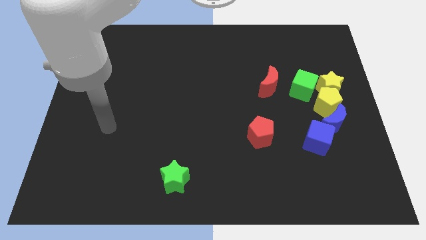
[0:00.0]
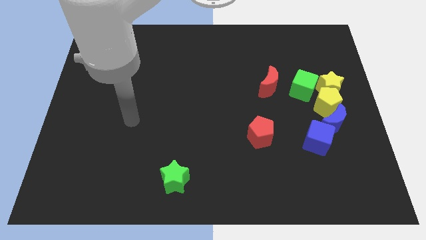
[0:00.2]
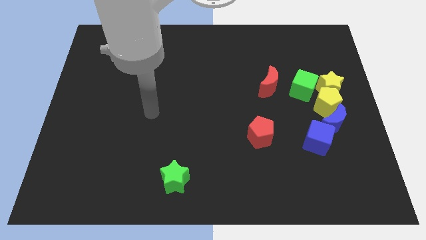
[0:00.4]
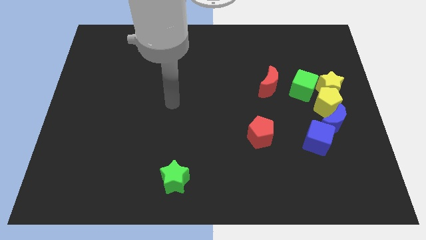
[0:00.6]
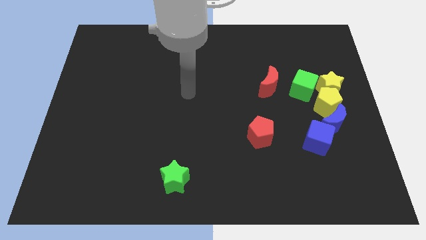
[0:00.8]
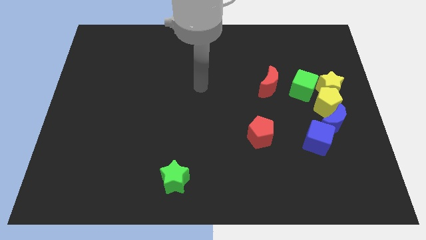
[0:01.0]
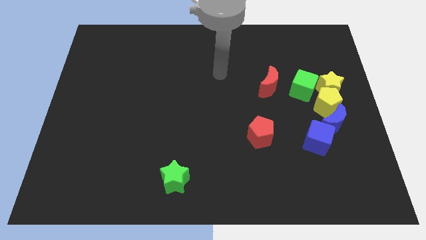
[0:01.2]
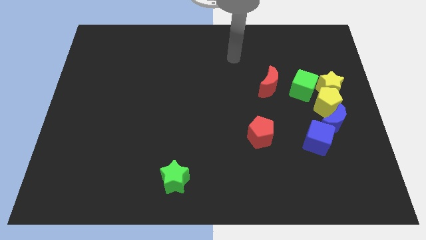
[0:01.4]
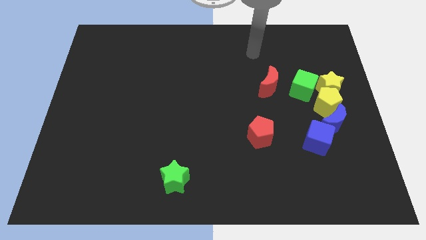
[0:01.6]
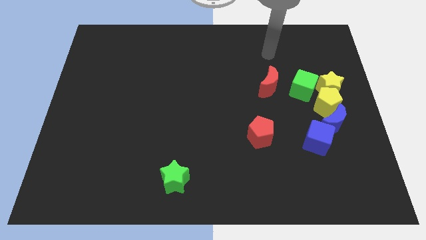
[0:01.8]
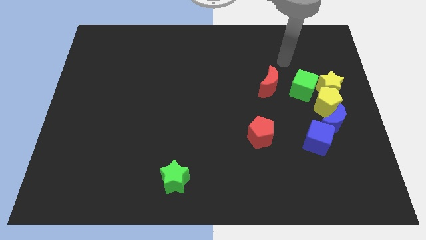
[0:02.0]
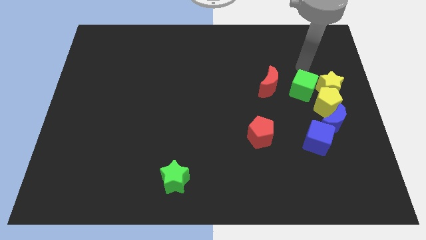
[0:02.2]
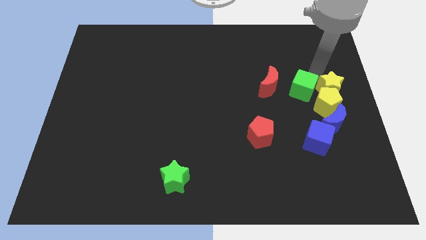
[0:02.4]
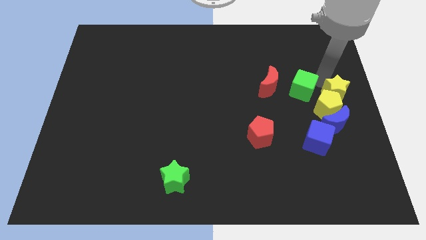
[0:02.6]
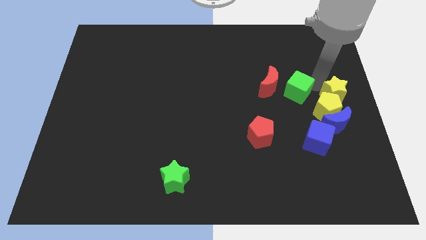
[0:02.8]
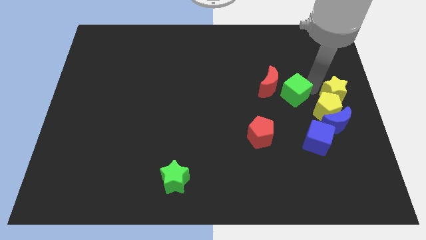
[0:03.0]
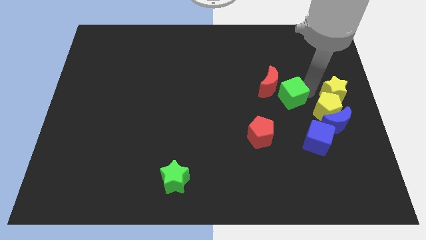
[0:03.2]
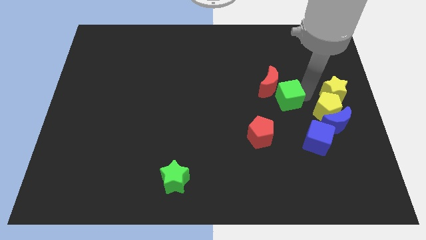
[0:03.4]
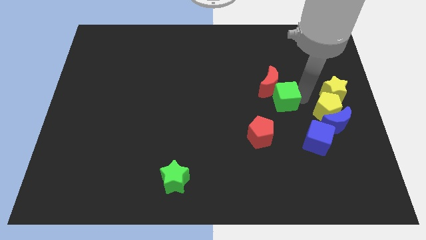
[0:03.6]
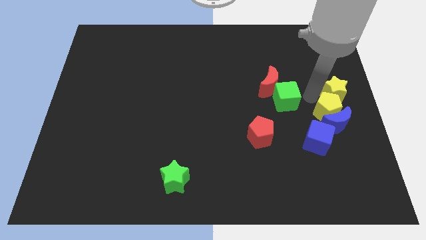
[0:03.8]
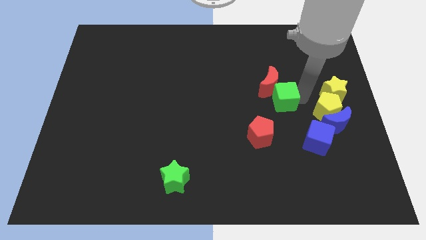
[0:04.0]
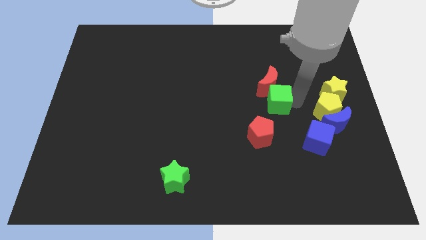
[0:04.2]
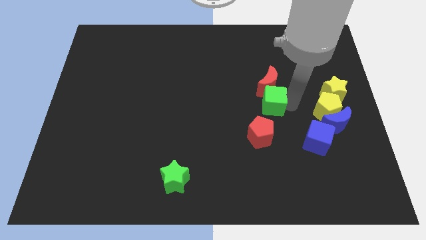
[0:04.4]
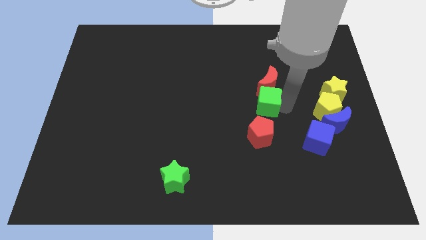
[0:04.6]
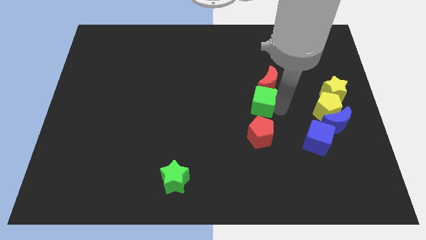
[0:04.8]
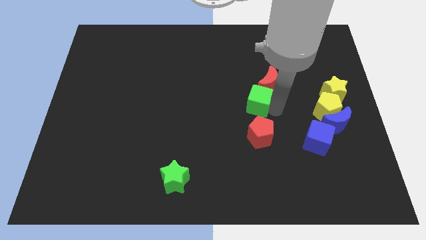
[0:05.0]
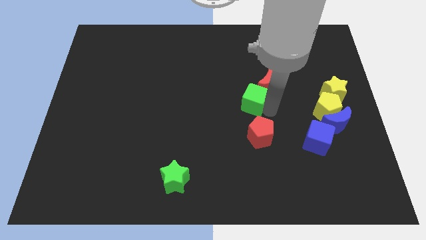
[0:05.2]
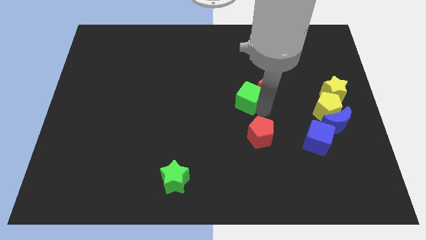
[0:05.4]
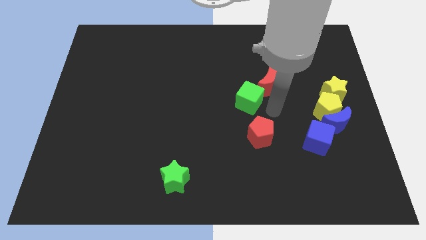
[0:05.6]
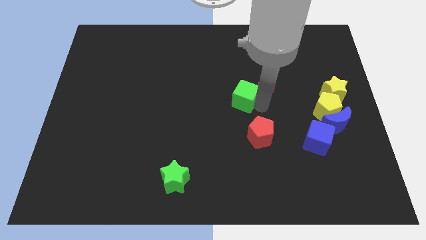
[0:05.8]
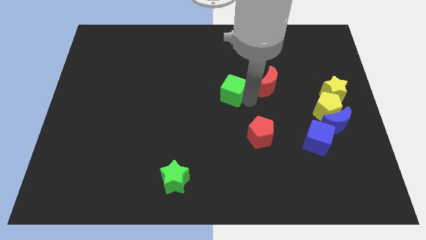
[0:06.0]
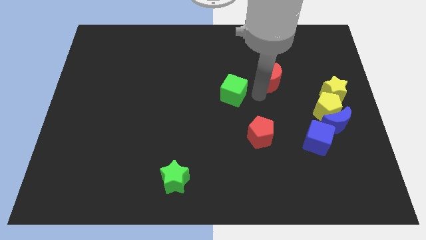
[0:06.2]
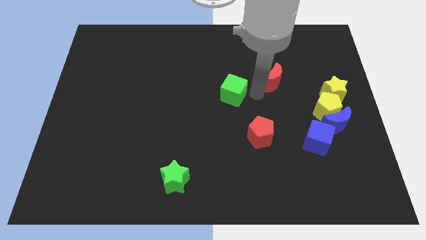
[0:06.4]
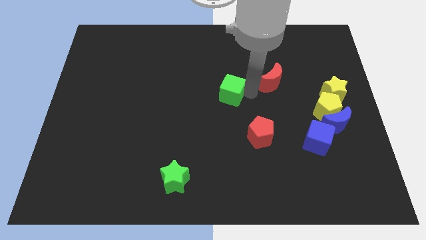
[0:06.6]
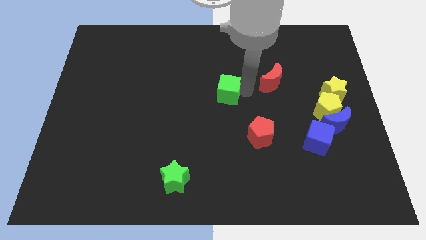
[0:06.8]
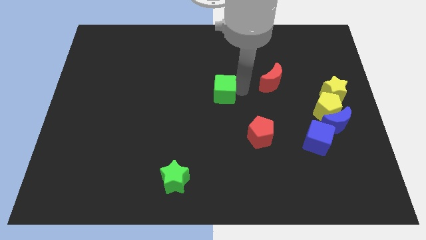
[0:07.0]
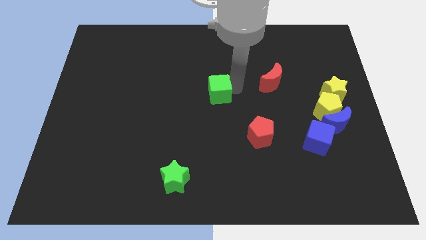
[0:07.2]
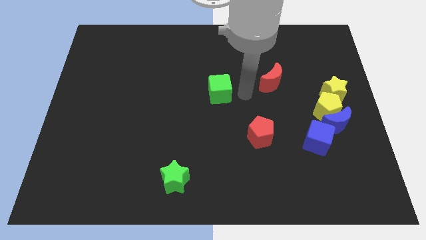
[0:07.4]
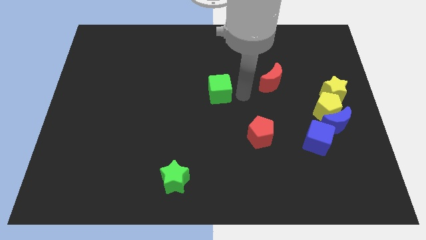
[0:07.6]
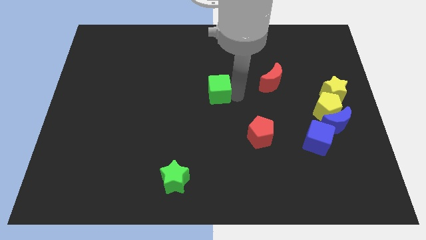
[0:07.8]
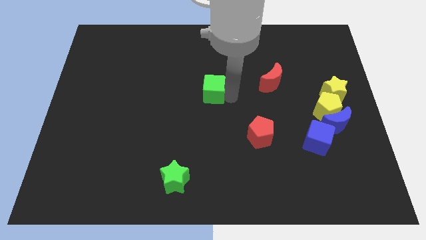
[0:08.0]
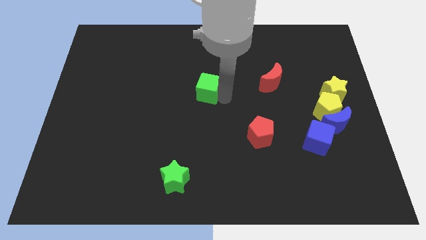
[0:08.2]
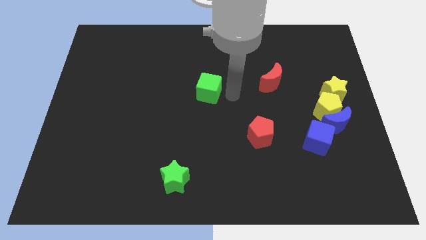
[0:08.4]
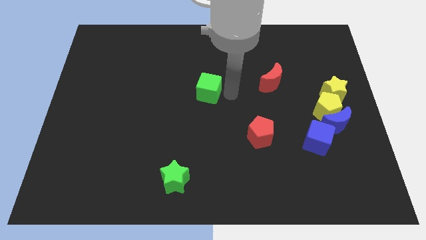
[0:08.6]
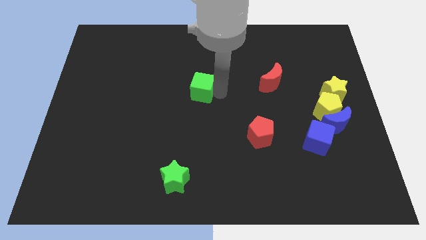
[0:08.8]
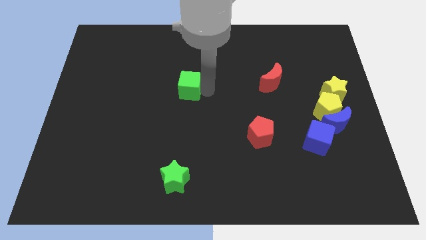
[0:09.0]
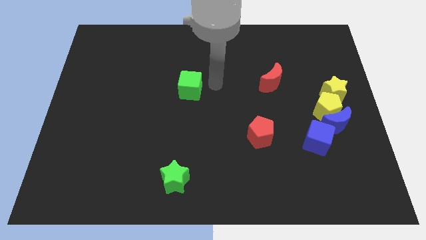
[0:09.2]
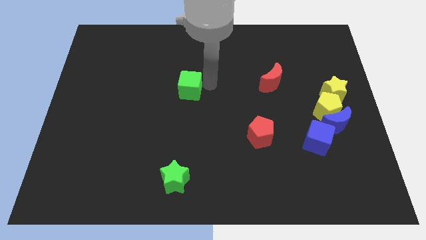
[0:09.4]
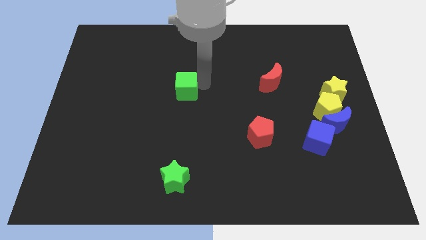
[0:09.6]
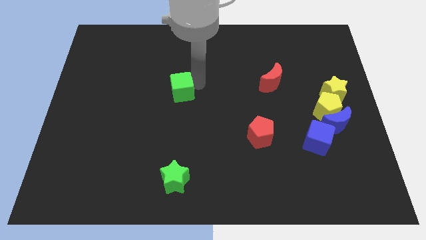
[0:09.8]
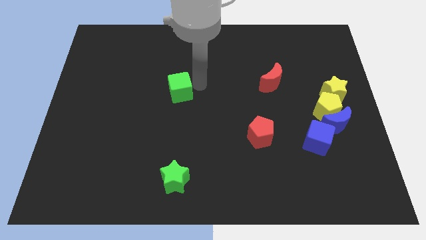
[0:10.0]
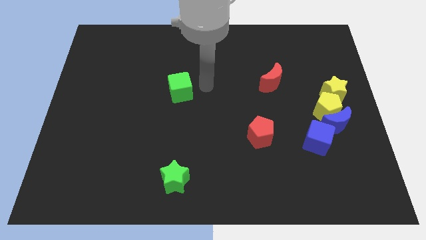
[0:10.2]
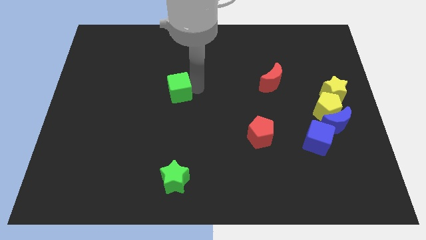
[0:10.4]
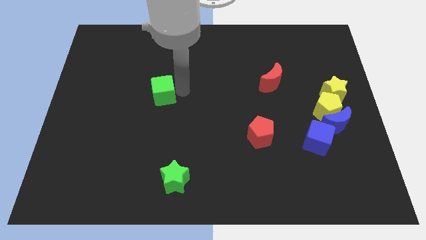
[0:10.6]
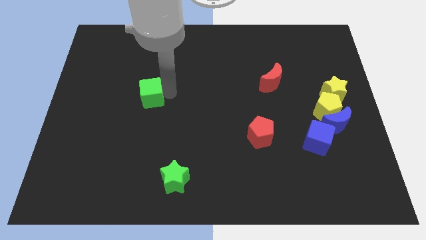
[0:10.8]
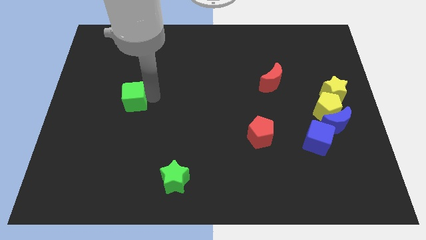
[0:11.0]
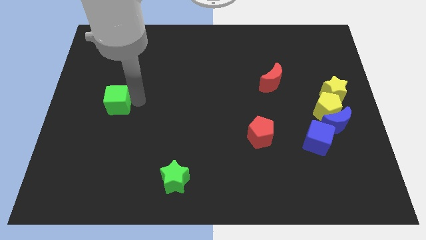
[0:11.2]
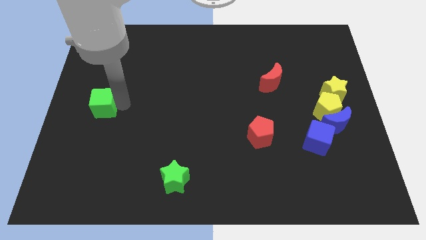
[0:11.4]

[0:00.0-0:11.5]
push the green cube to the center left
